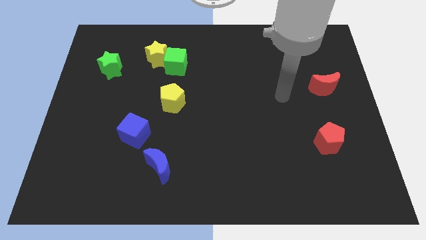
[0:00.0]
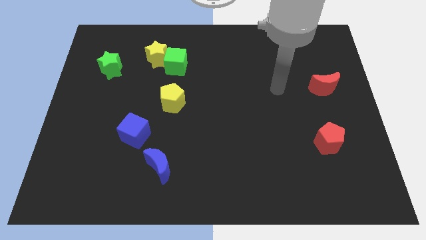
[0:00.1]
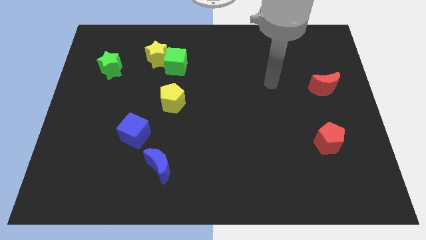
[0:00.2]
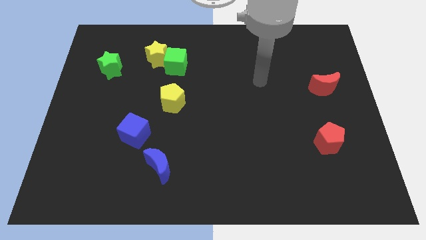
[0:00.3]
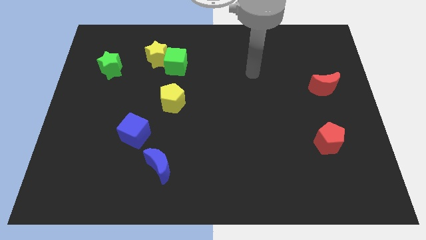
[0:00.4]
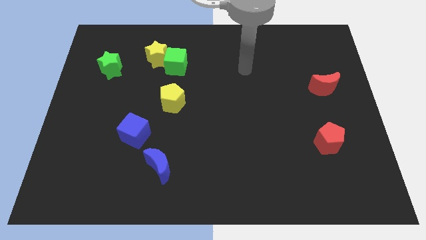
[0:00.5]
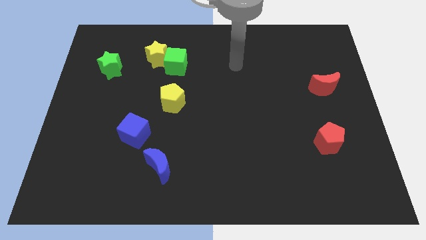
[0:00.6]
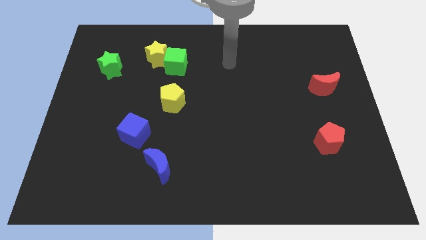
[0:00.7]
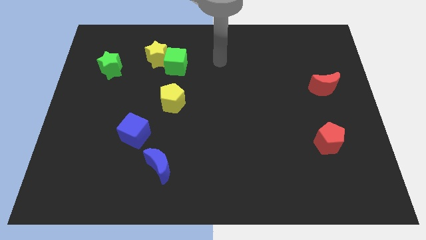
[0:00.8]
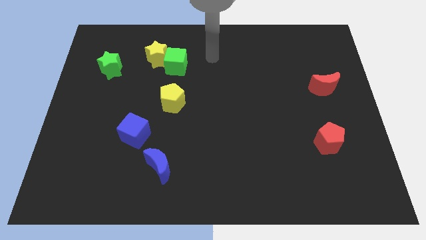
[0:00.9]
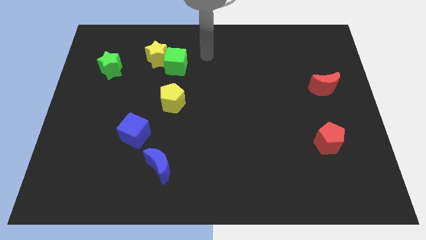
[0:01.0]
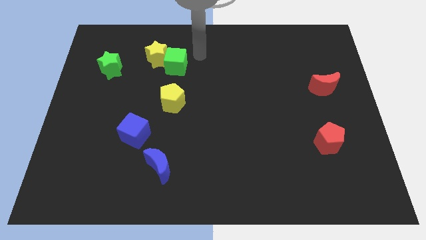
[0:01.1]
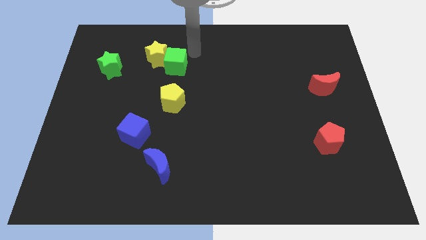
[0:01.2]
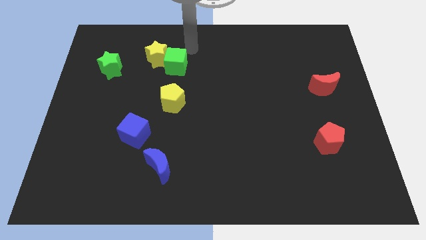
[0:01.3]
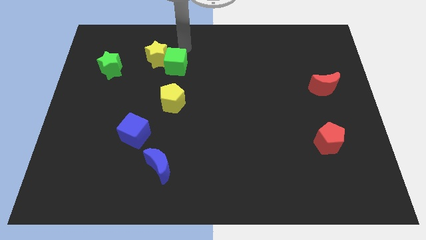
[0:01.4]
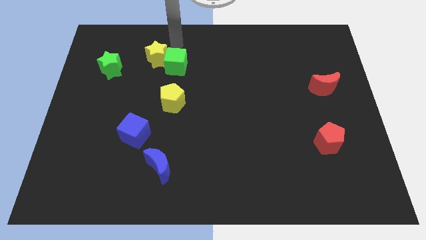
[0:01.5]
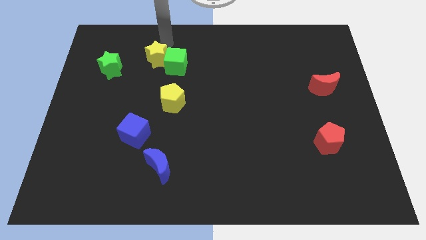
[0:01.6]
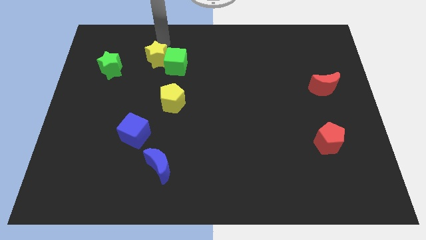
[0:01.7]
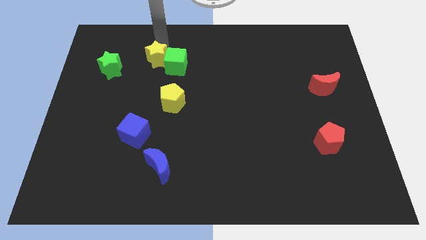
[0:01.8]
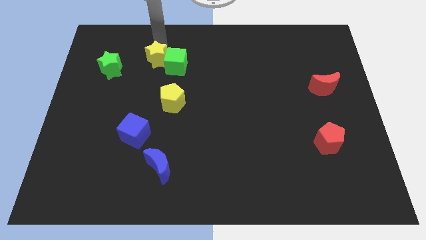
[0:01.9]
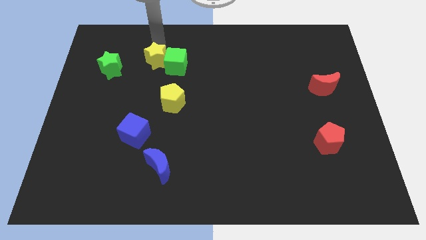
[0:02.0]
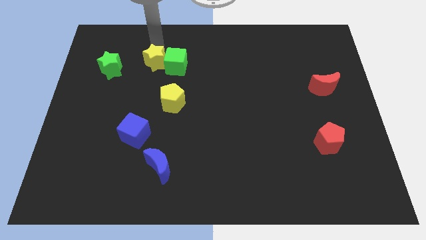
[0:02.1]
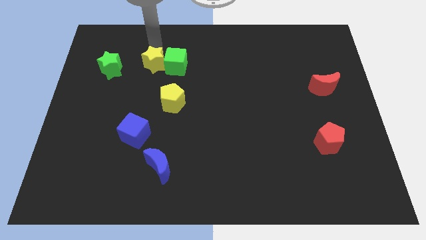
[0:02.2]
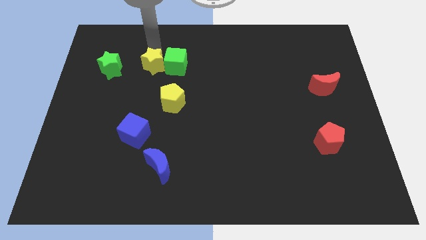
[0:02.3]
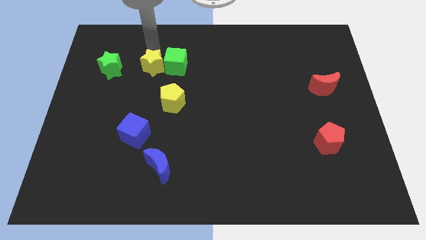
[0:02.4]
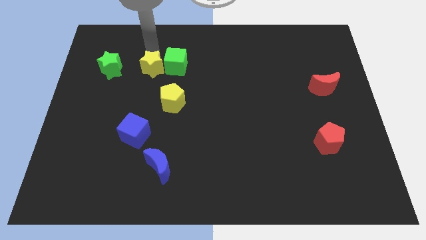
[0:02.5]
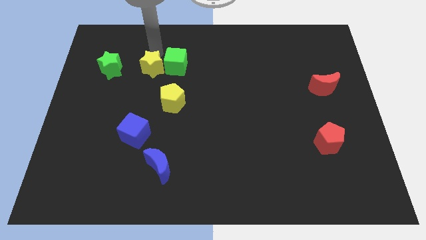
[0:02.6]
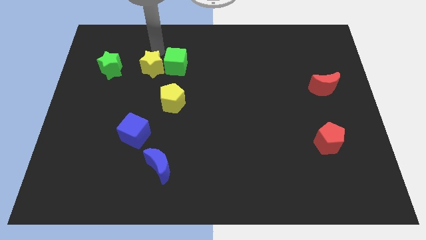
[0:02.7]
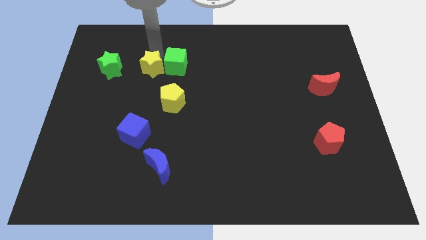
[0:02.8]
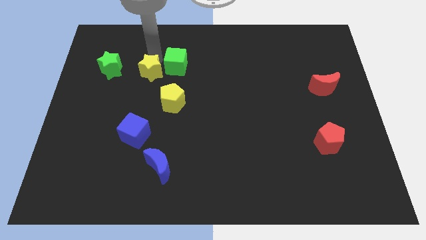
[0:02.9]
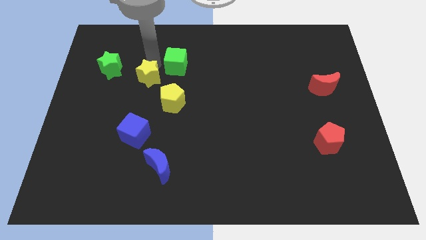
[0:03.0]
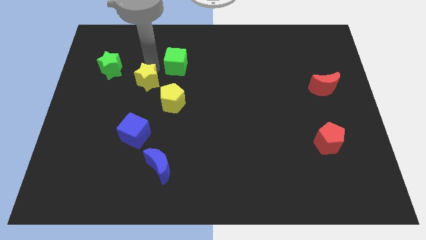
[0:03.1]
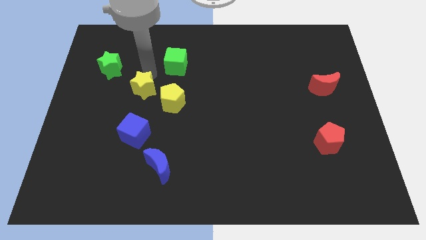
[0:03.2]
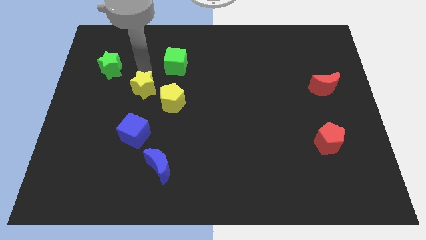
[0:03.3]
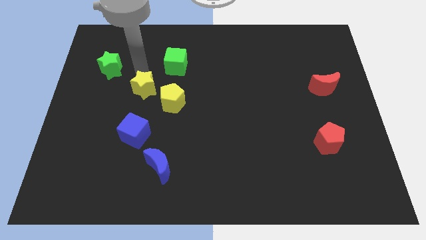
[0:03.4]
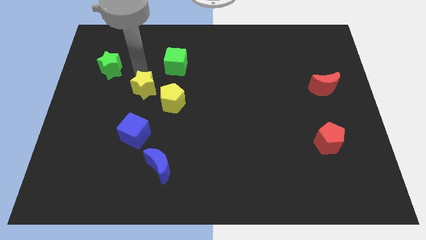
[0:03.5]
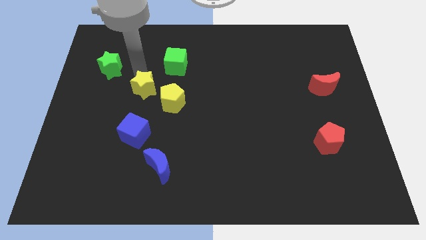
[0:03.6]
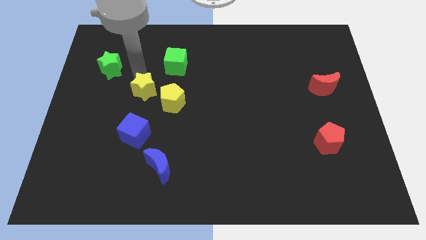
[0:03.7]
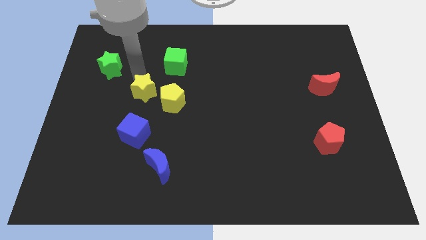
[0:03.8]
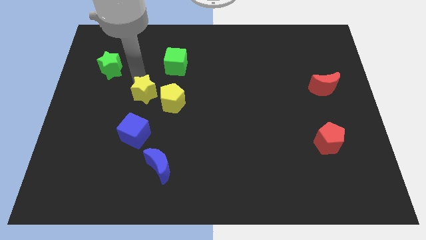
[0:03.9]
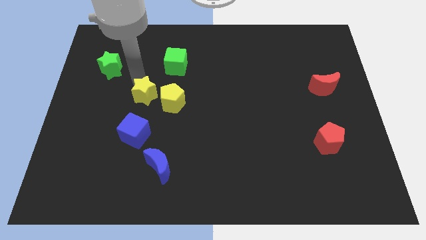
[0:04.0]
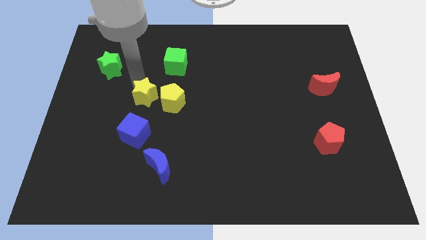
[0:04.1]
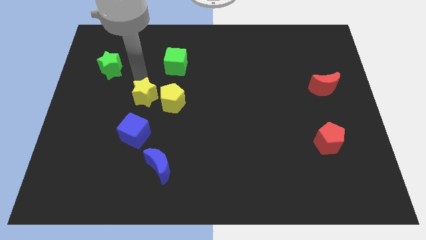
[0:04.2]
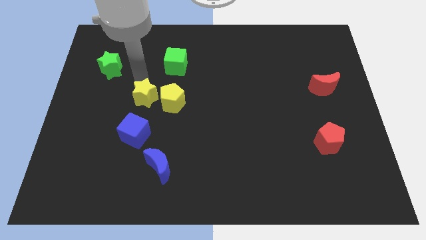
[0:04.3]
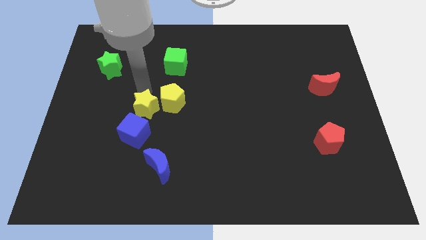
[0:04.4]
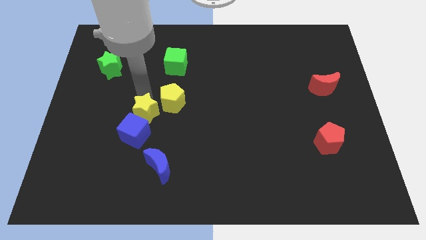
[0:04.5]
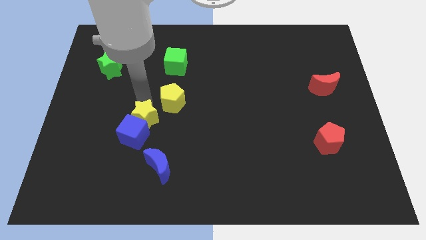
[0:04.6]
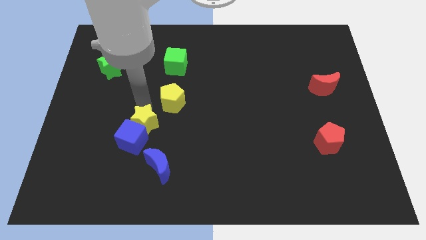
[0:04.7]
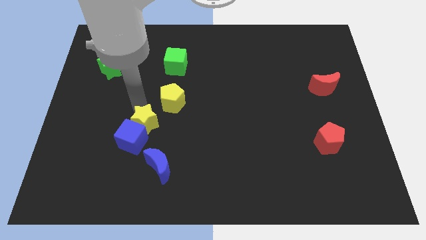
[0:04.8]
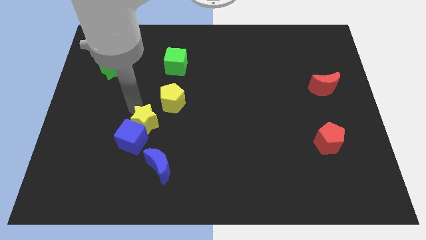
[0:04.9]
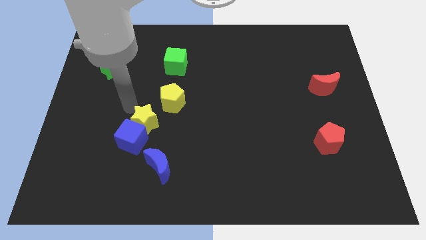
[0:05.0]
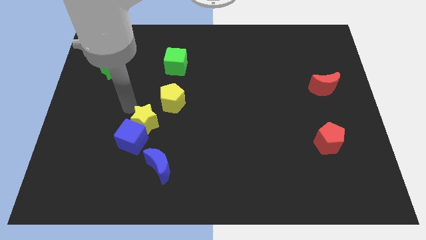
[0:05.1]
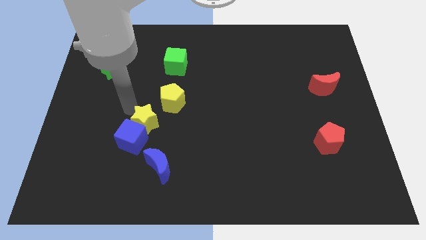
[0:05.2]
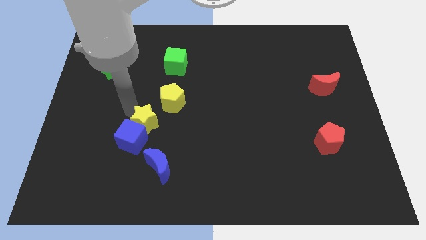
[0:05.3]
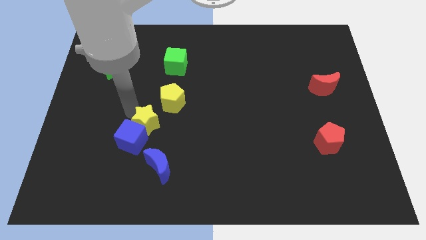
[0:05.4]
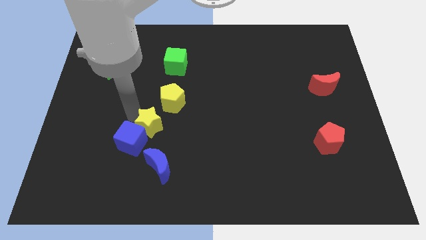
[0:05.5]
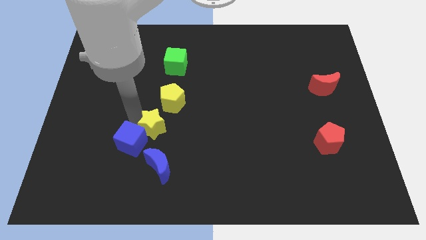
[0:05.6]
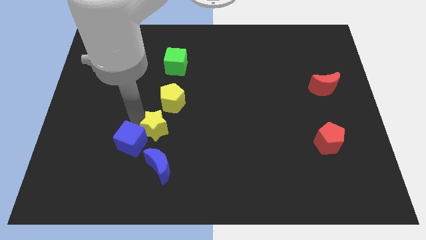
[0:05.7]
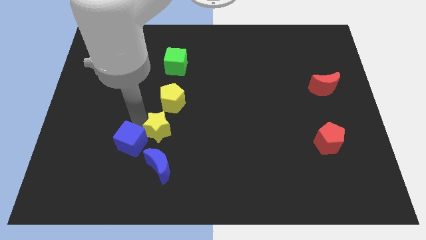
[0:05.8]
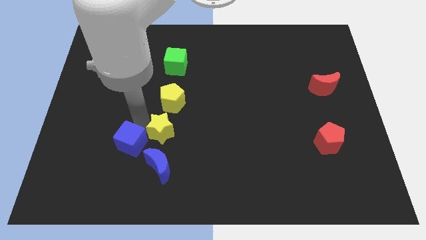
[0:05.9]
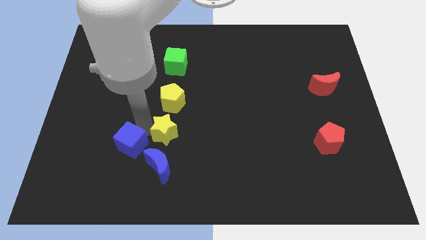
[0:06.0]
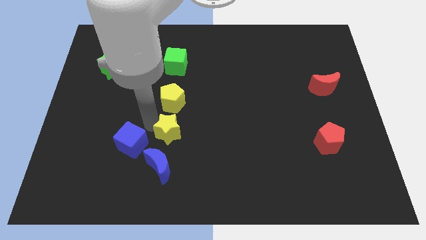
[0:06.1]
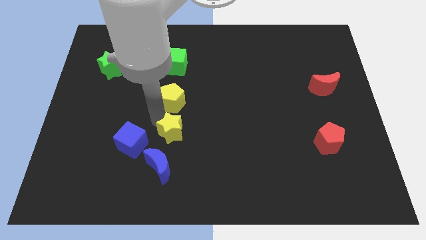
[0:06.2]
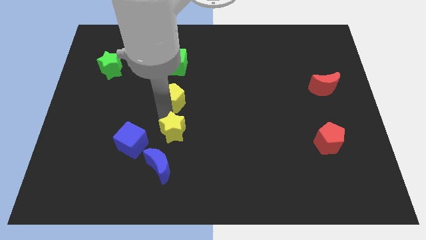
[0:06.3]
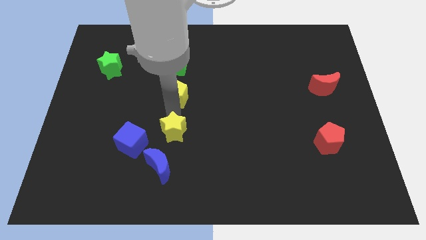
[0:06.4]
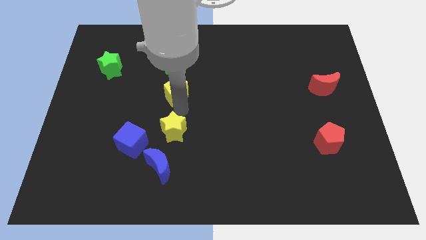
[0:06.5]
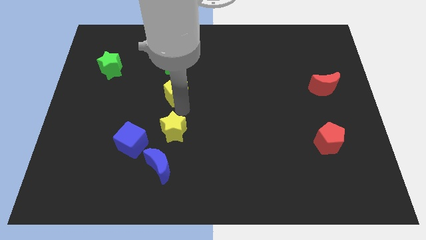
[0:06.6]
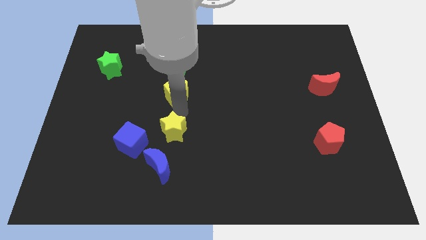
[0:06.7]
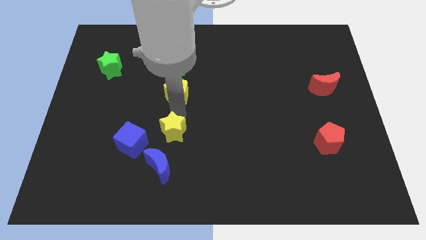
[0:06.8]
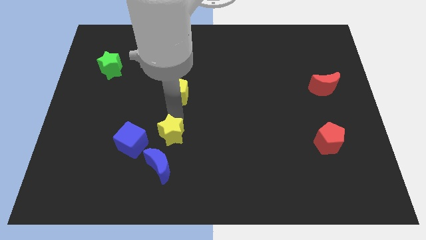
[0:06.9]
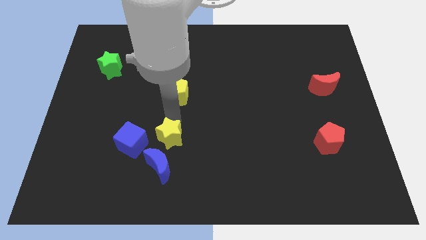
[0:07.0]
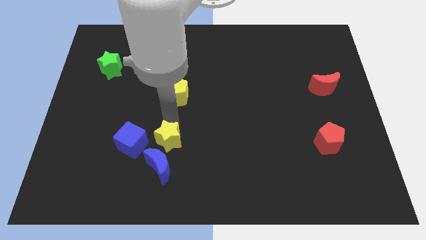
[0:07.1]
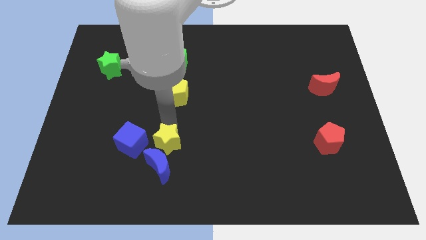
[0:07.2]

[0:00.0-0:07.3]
push the yellow star next to the blue moon
